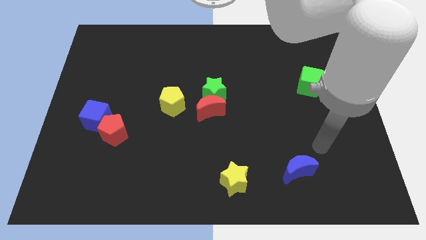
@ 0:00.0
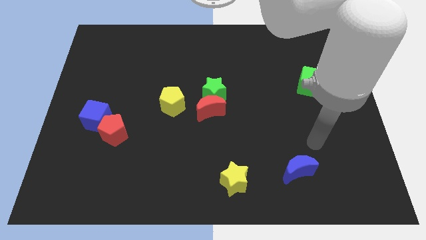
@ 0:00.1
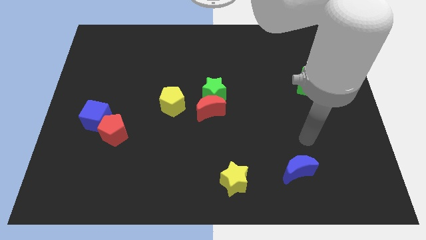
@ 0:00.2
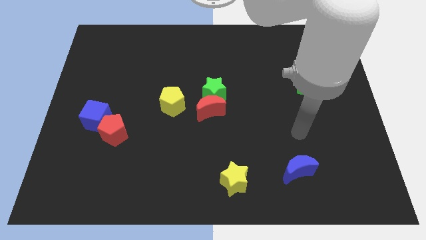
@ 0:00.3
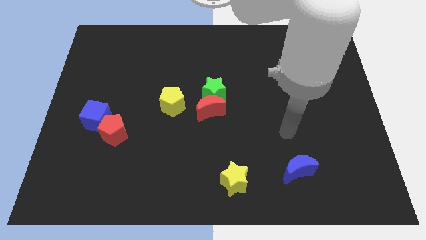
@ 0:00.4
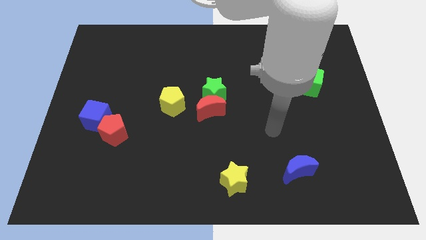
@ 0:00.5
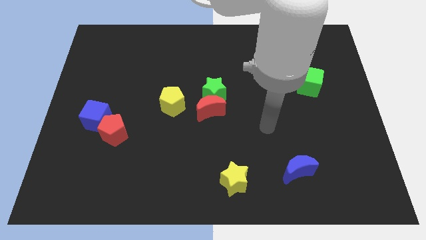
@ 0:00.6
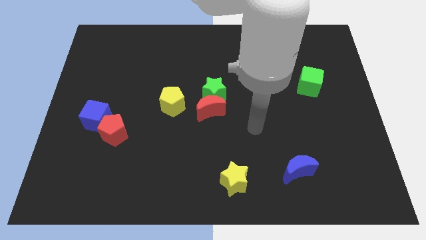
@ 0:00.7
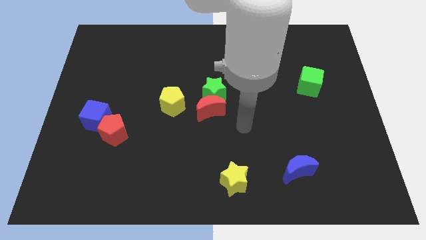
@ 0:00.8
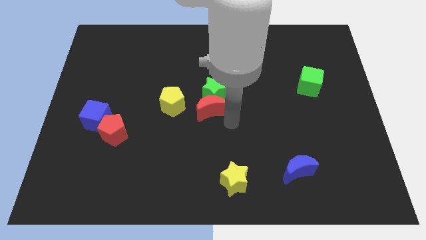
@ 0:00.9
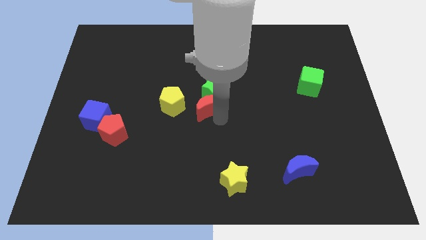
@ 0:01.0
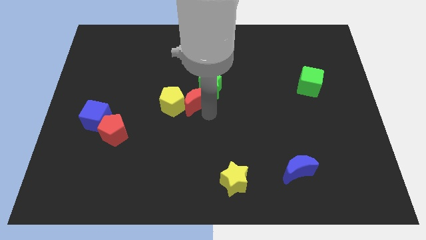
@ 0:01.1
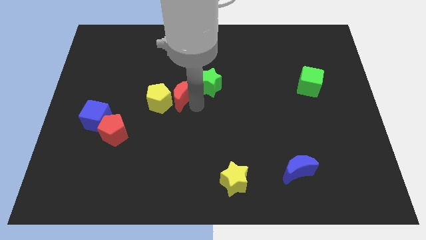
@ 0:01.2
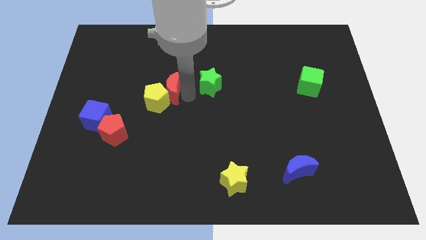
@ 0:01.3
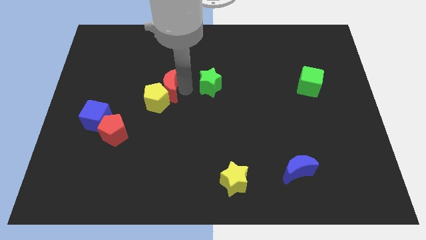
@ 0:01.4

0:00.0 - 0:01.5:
separate the green star from the red moon

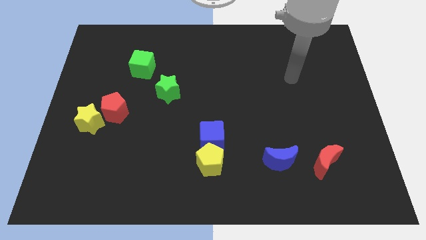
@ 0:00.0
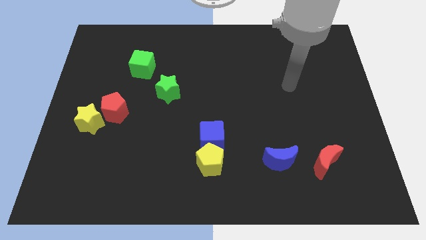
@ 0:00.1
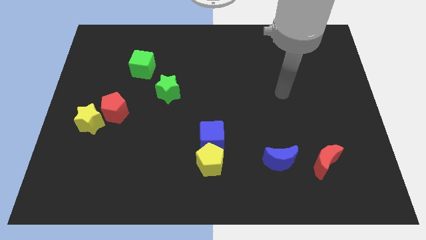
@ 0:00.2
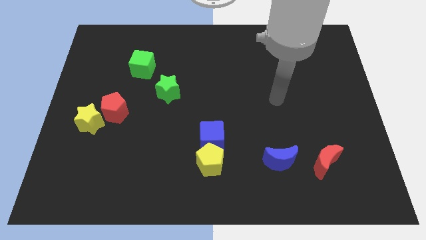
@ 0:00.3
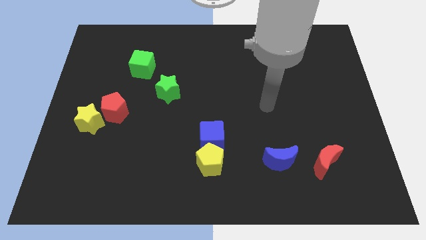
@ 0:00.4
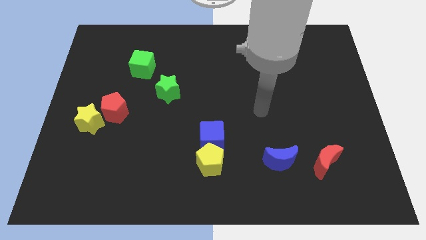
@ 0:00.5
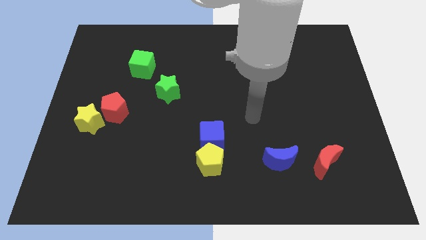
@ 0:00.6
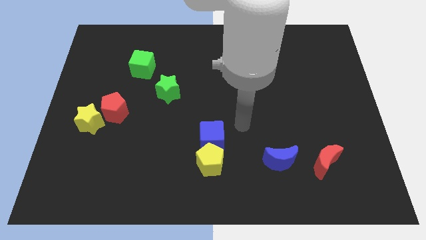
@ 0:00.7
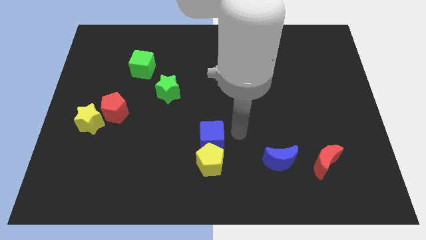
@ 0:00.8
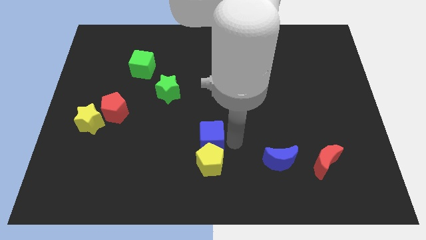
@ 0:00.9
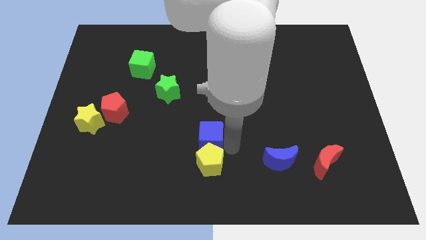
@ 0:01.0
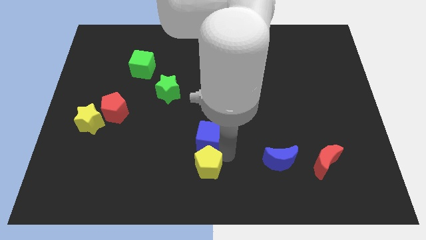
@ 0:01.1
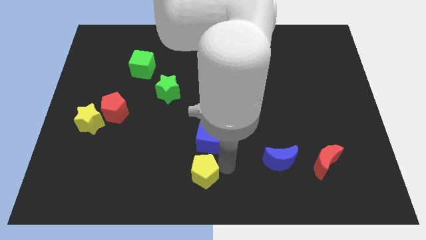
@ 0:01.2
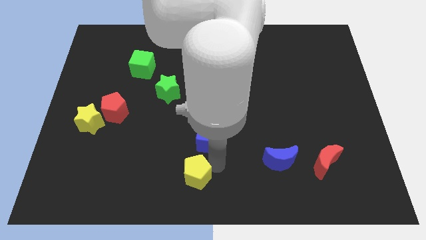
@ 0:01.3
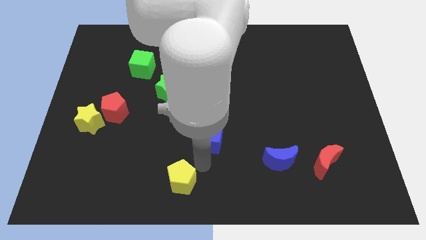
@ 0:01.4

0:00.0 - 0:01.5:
separate the blue cube from the yellow pentagon

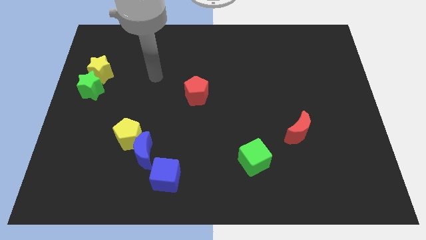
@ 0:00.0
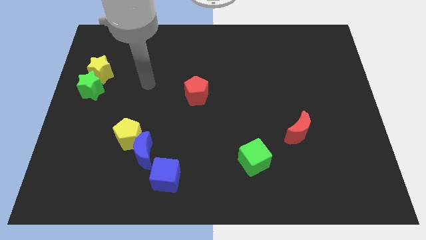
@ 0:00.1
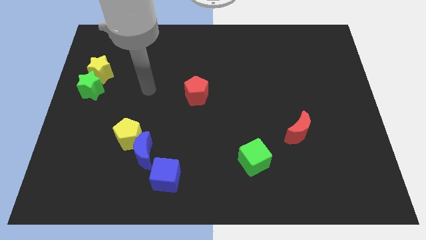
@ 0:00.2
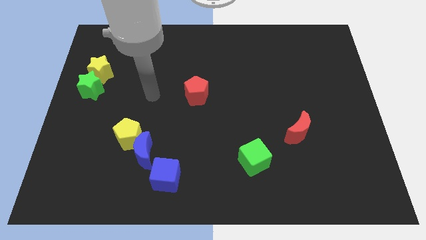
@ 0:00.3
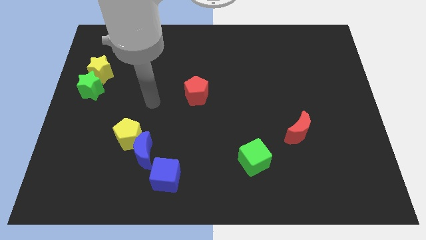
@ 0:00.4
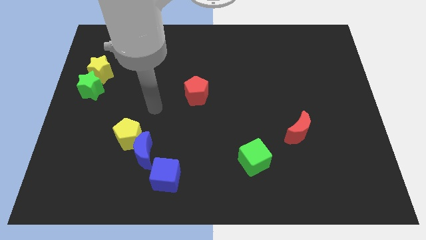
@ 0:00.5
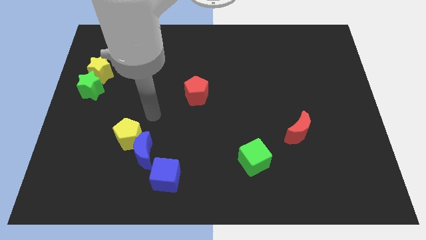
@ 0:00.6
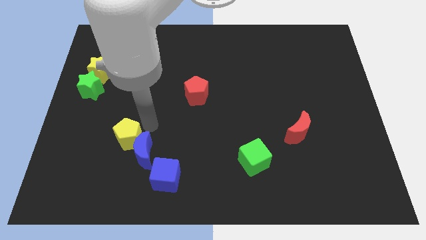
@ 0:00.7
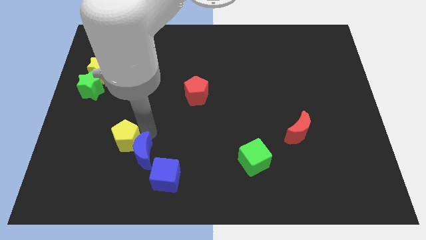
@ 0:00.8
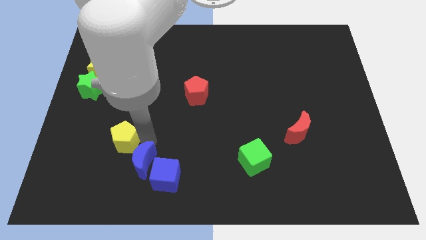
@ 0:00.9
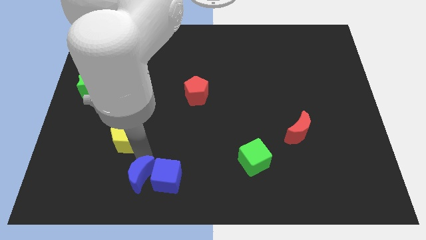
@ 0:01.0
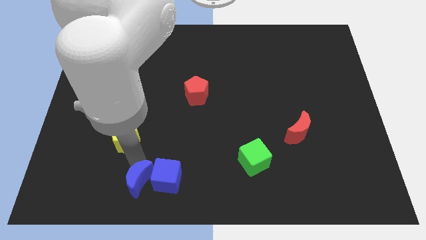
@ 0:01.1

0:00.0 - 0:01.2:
pull the yellow pentagon apart from the blue moon

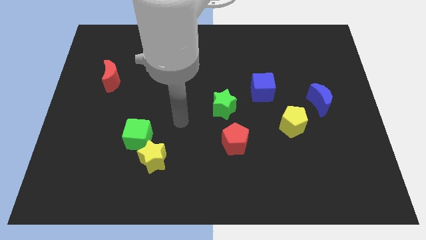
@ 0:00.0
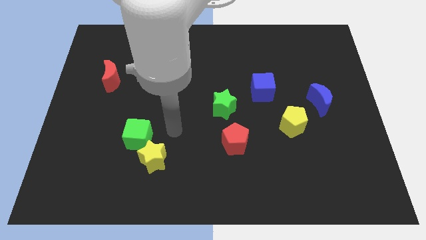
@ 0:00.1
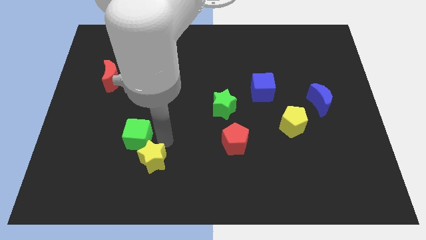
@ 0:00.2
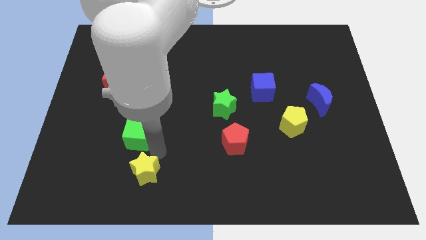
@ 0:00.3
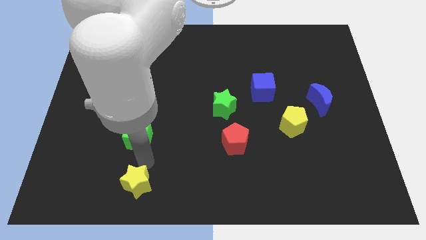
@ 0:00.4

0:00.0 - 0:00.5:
separate the green cube from the yellow star

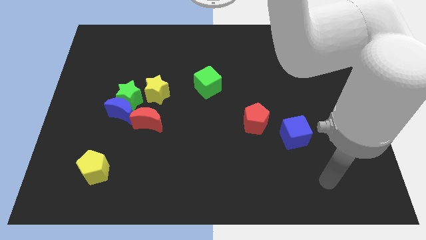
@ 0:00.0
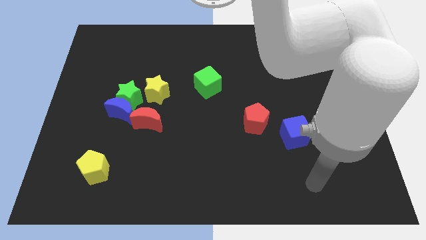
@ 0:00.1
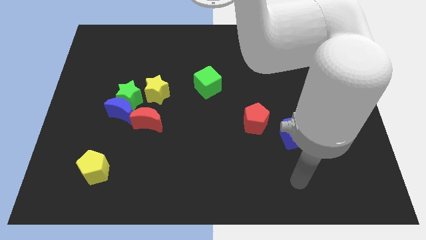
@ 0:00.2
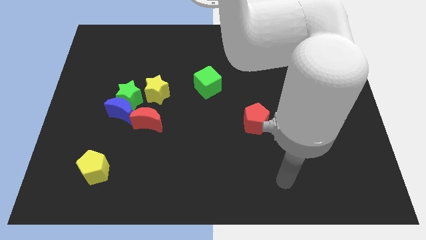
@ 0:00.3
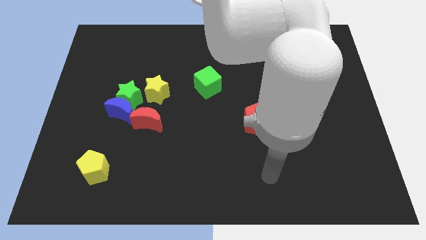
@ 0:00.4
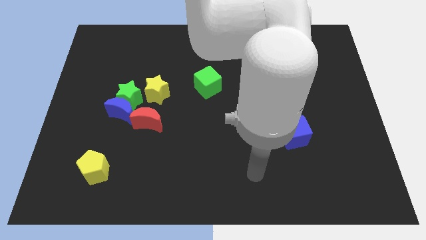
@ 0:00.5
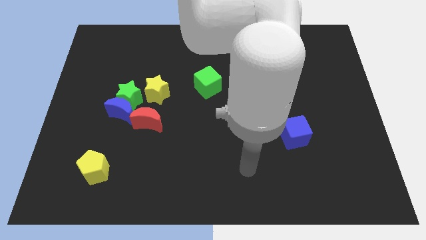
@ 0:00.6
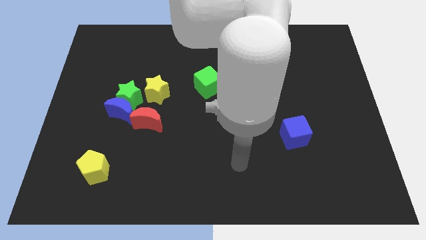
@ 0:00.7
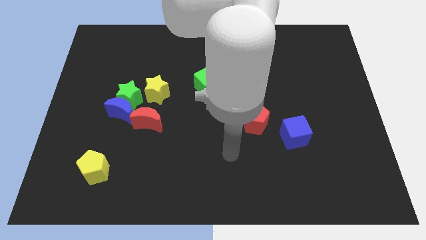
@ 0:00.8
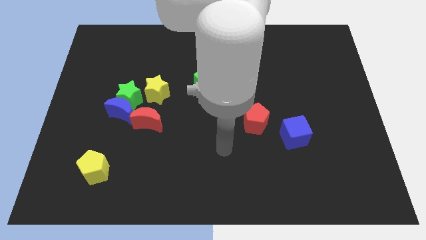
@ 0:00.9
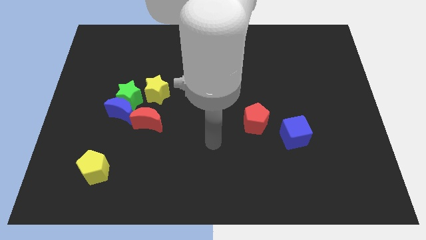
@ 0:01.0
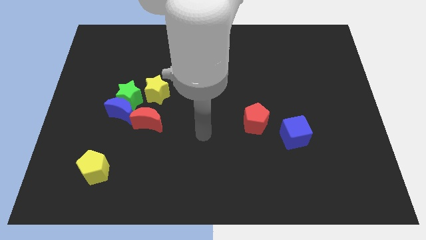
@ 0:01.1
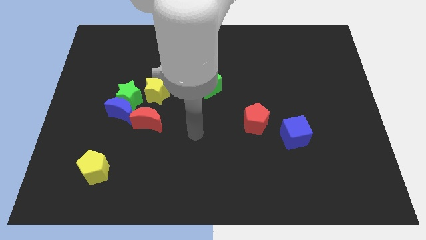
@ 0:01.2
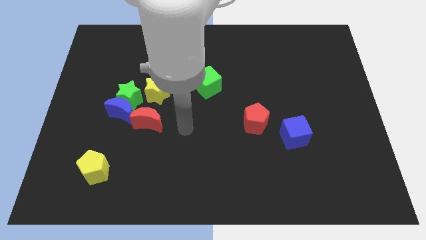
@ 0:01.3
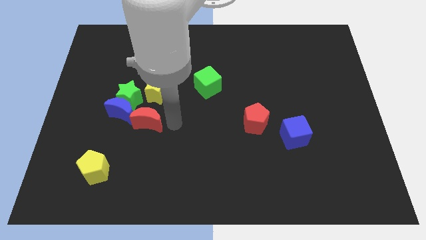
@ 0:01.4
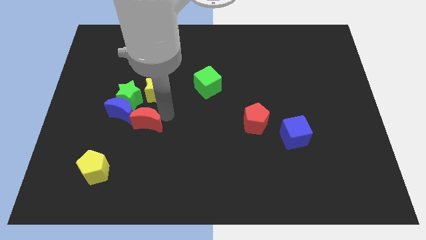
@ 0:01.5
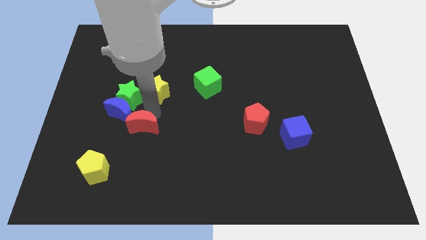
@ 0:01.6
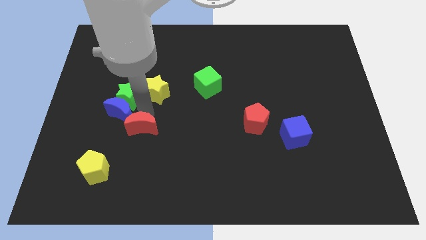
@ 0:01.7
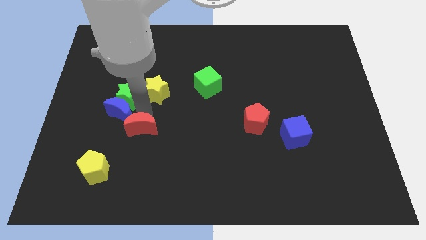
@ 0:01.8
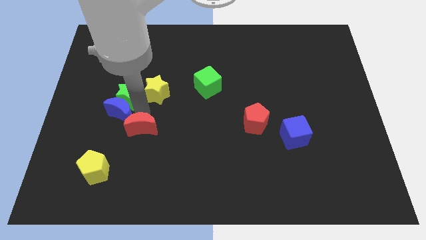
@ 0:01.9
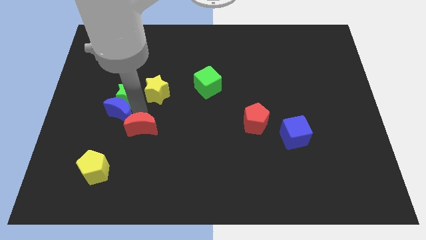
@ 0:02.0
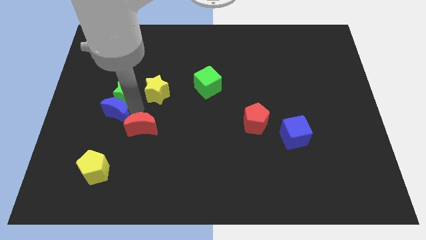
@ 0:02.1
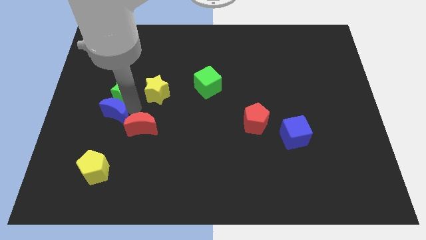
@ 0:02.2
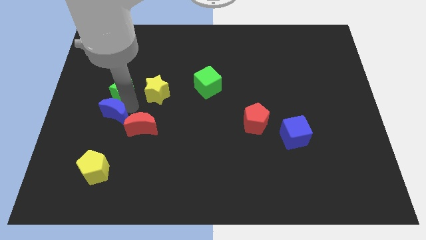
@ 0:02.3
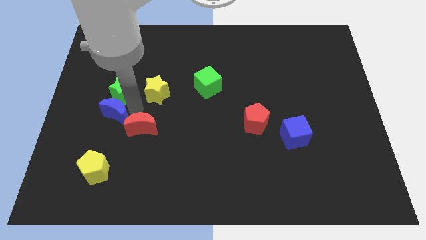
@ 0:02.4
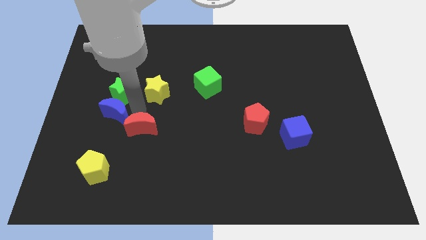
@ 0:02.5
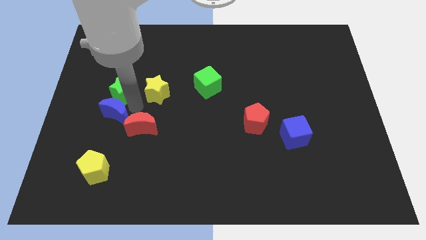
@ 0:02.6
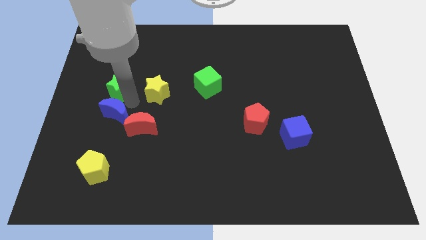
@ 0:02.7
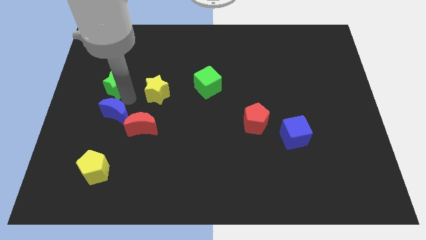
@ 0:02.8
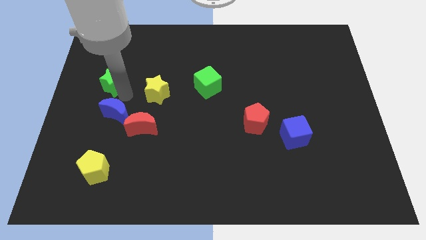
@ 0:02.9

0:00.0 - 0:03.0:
separate the green star from the group

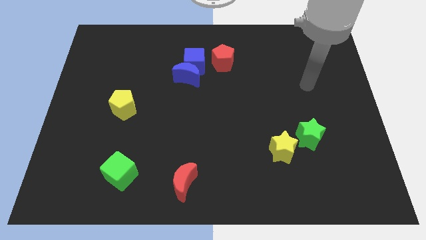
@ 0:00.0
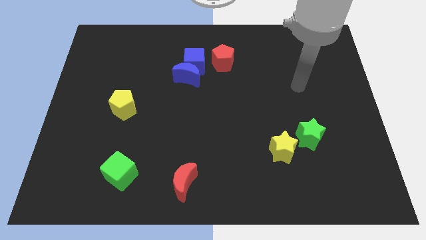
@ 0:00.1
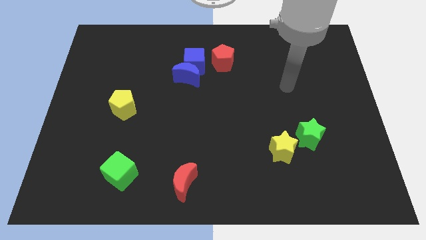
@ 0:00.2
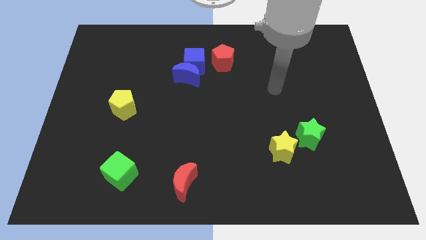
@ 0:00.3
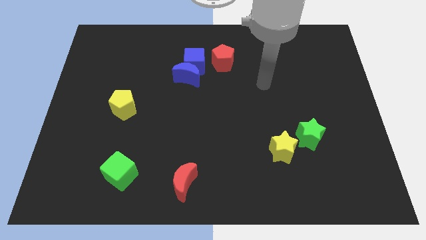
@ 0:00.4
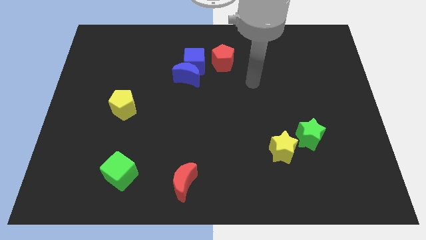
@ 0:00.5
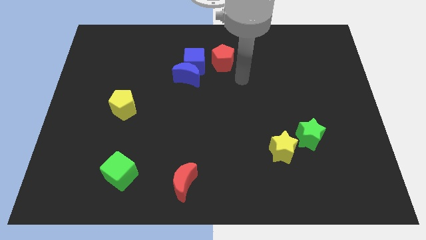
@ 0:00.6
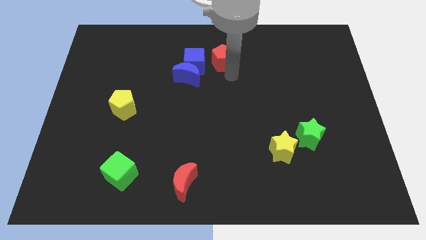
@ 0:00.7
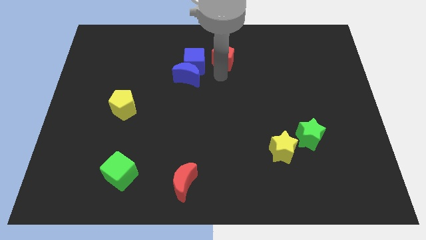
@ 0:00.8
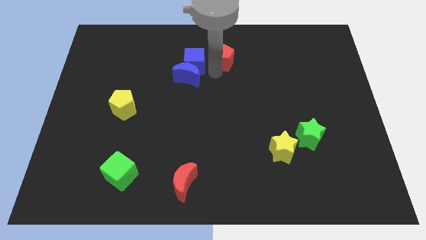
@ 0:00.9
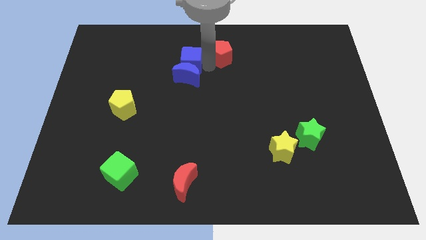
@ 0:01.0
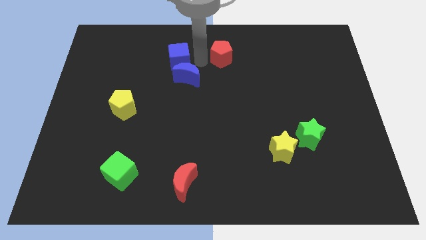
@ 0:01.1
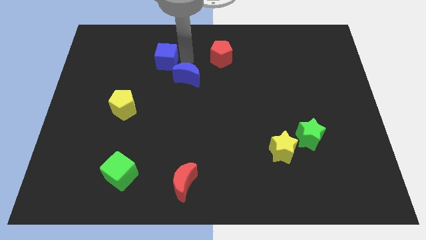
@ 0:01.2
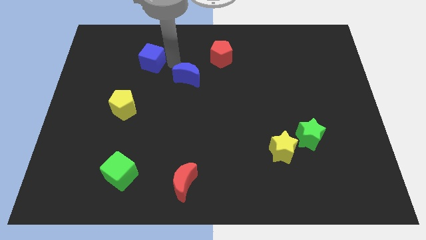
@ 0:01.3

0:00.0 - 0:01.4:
separate the blue moon from the blue cube

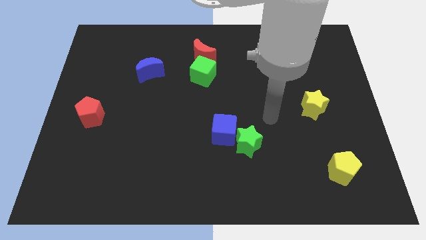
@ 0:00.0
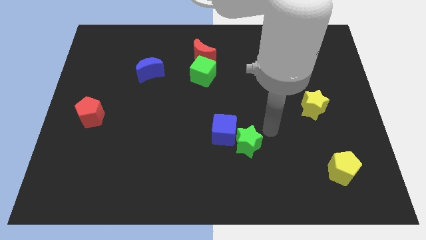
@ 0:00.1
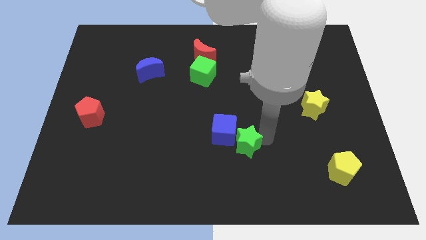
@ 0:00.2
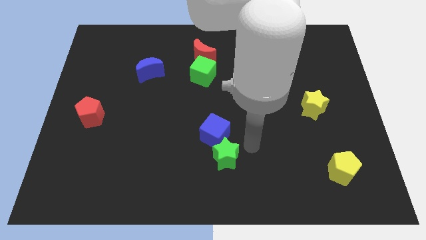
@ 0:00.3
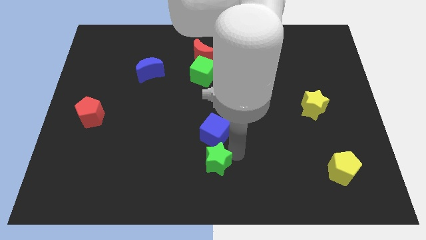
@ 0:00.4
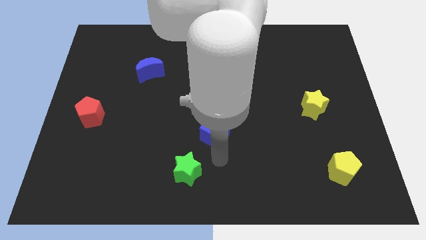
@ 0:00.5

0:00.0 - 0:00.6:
pull the blue cube apart from the green star
